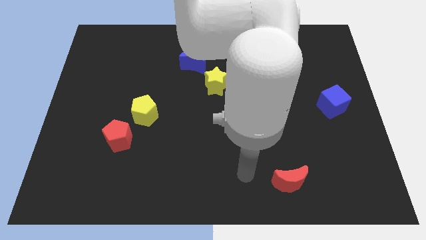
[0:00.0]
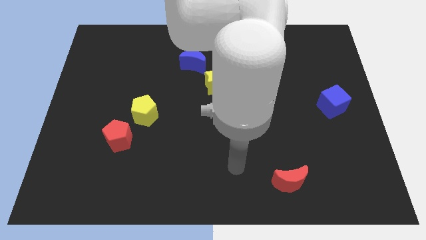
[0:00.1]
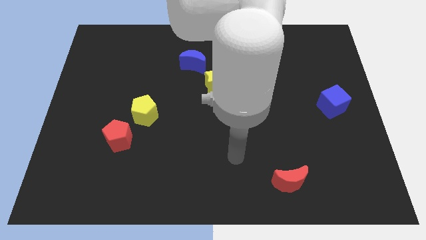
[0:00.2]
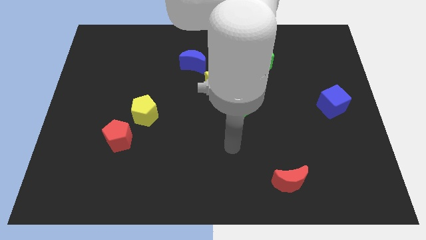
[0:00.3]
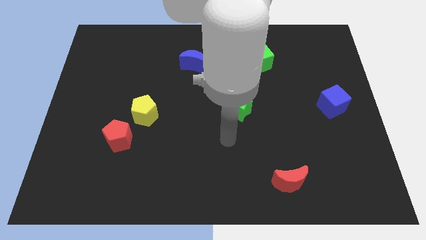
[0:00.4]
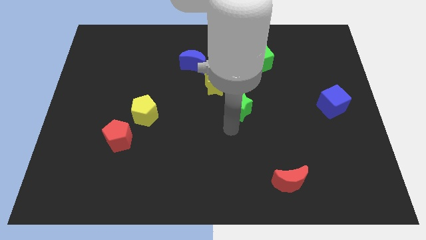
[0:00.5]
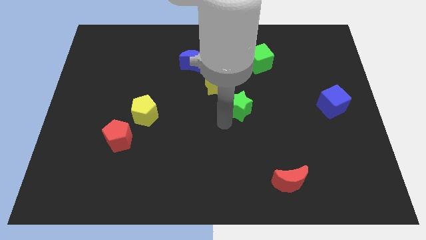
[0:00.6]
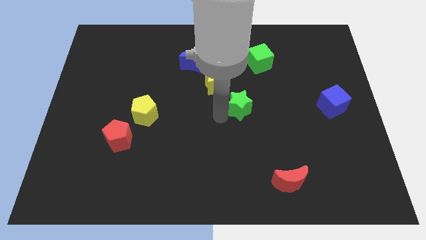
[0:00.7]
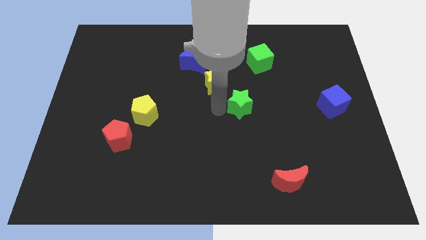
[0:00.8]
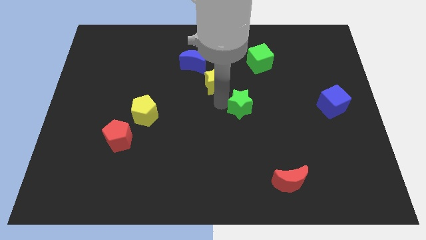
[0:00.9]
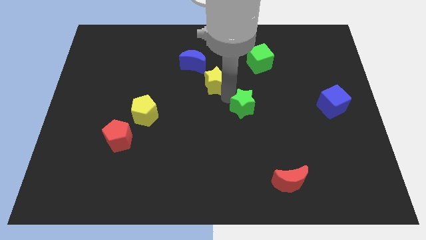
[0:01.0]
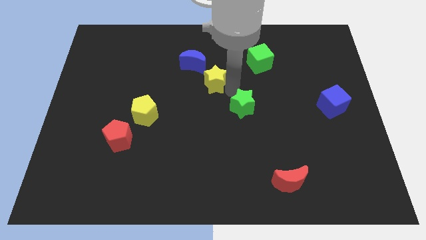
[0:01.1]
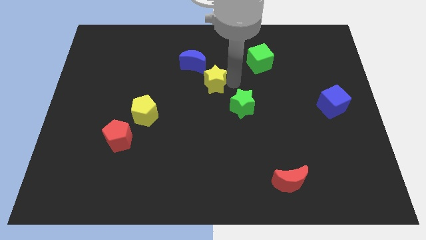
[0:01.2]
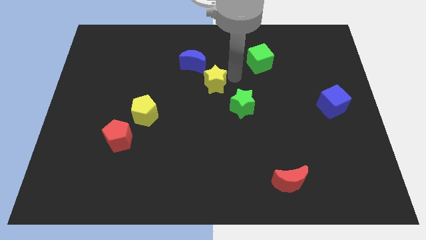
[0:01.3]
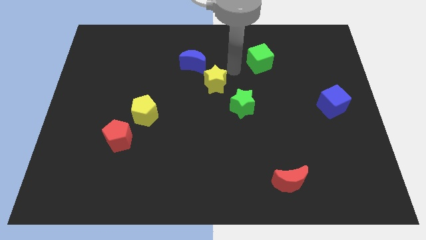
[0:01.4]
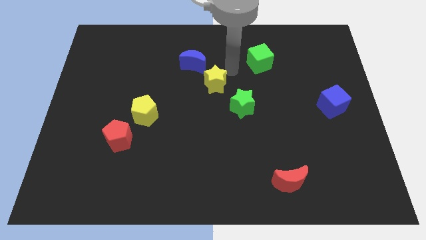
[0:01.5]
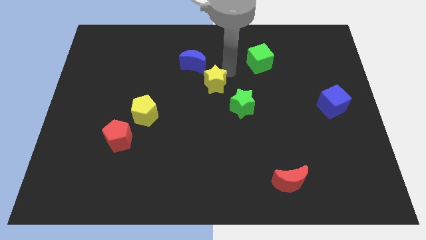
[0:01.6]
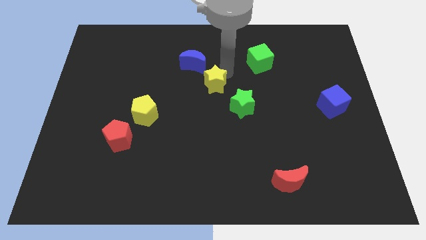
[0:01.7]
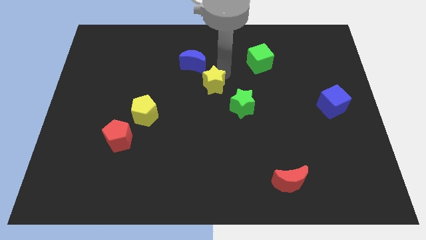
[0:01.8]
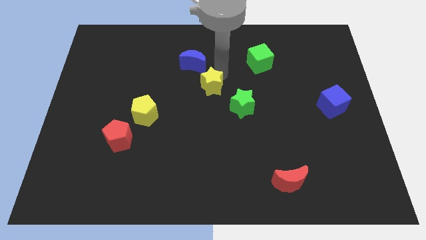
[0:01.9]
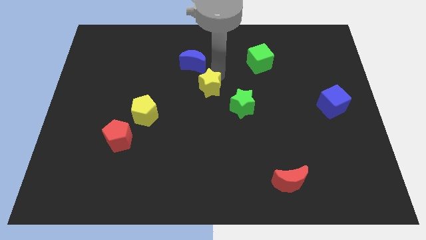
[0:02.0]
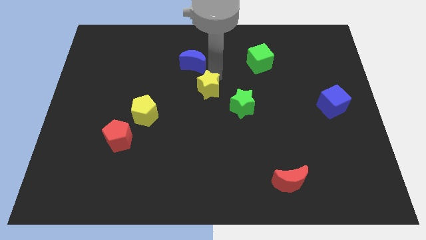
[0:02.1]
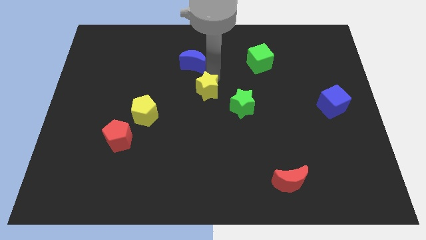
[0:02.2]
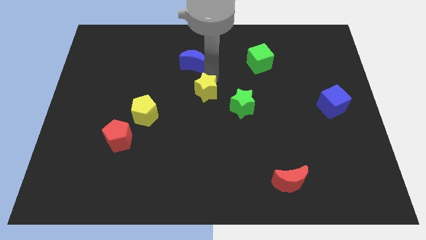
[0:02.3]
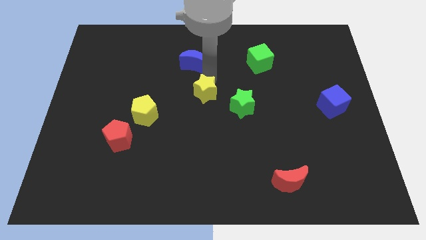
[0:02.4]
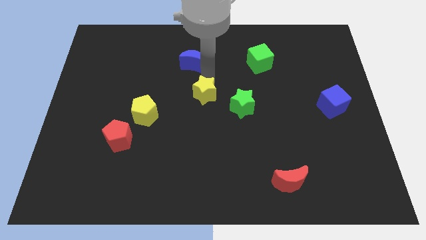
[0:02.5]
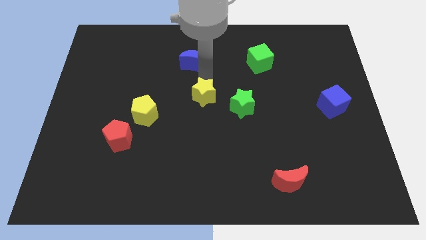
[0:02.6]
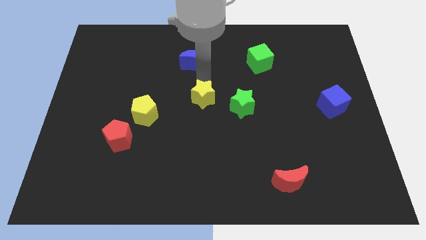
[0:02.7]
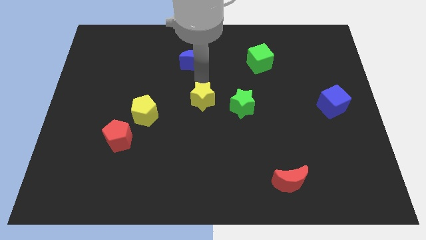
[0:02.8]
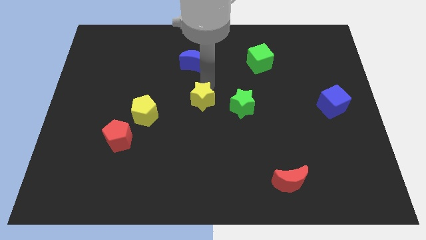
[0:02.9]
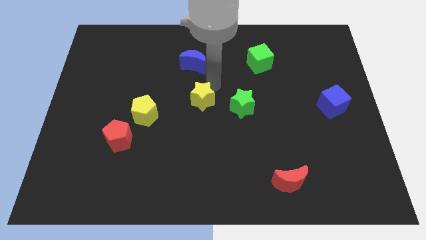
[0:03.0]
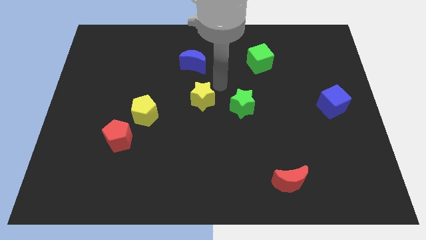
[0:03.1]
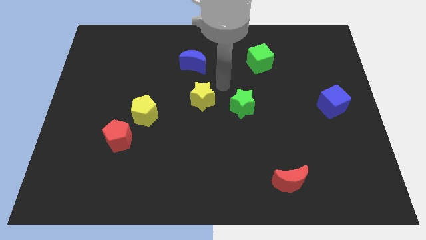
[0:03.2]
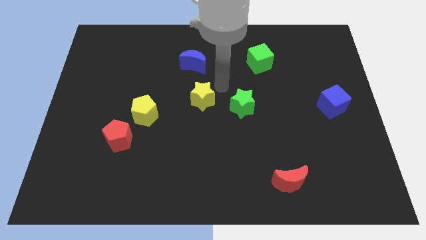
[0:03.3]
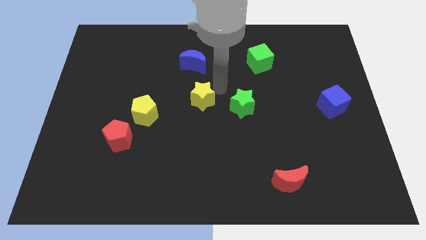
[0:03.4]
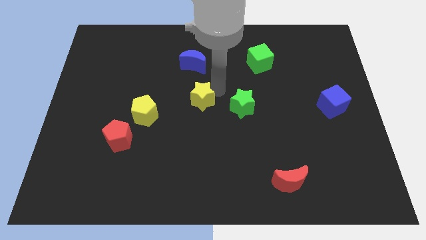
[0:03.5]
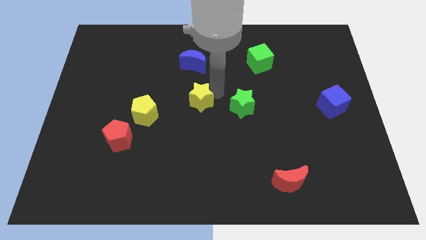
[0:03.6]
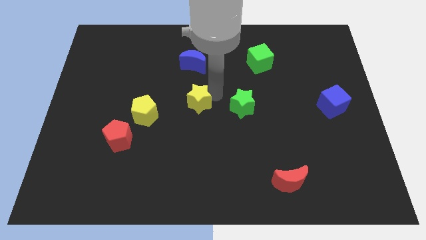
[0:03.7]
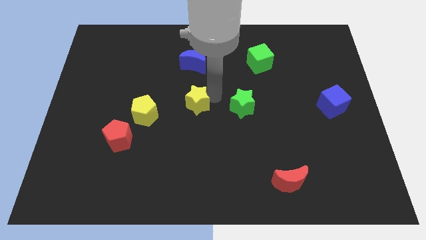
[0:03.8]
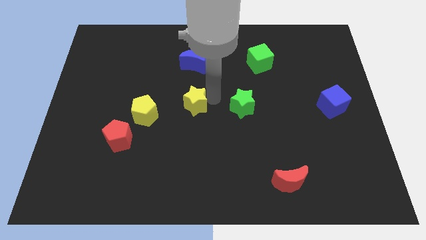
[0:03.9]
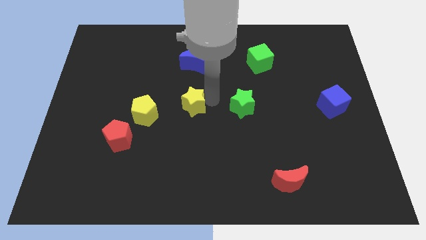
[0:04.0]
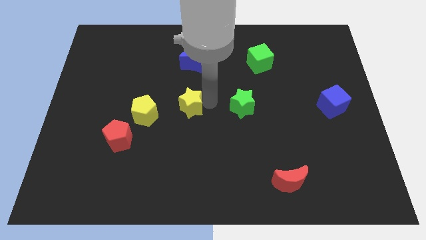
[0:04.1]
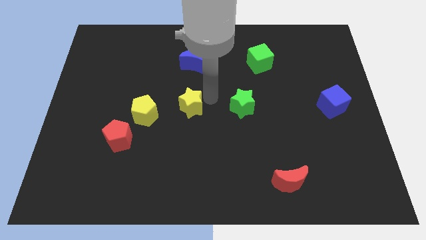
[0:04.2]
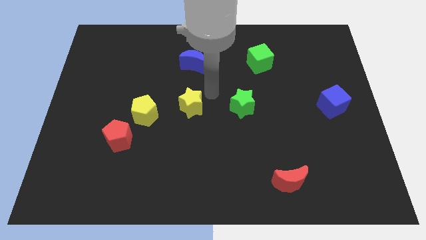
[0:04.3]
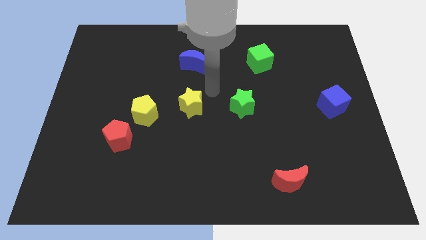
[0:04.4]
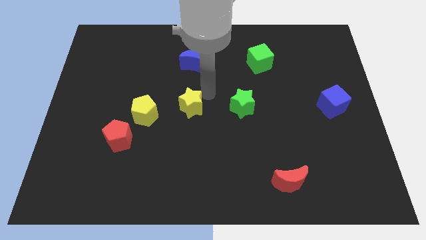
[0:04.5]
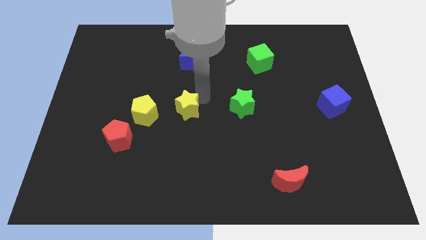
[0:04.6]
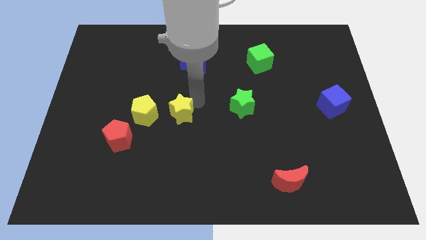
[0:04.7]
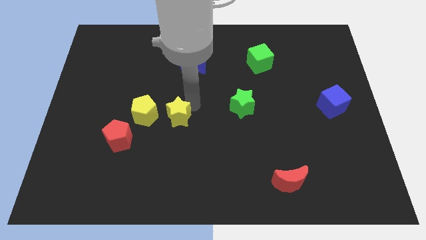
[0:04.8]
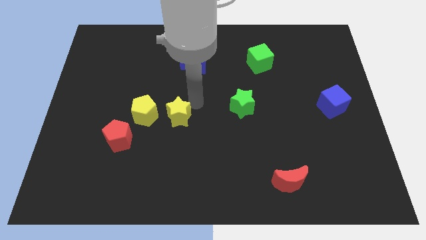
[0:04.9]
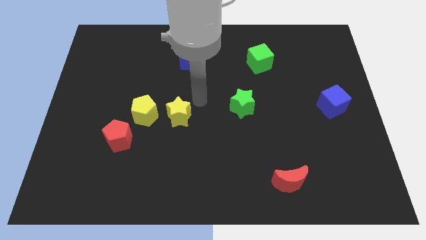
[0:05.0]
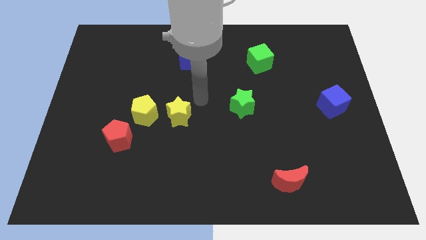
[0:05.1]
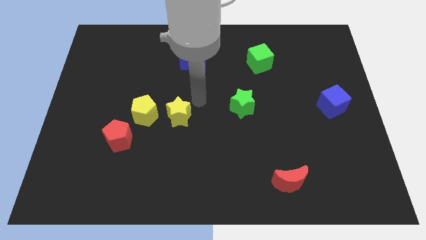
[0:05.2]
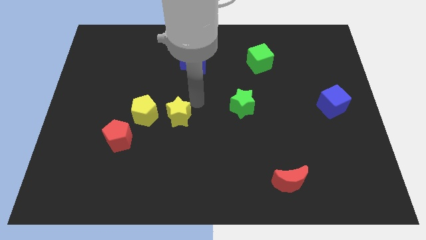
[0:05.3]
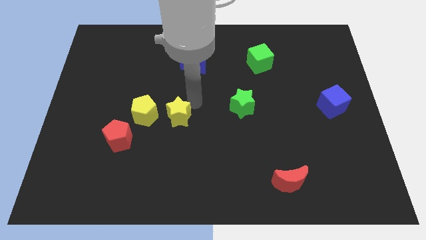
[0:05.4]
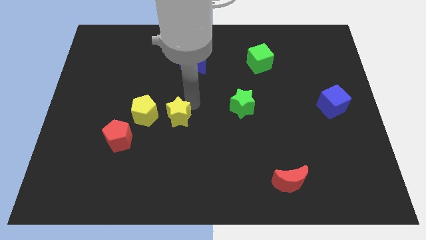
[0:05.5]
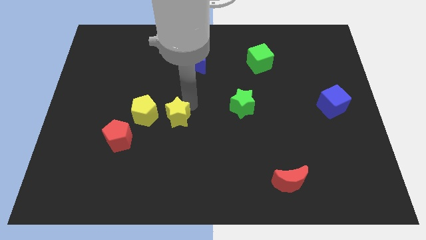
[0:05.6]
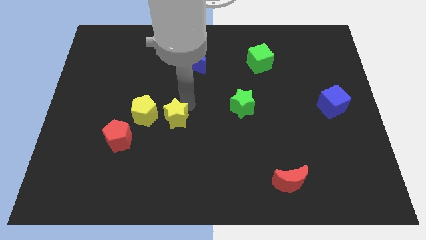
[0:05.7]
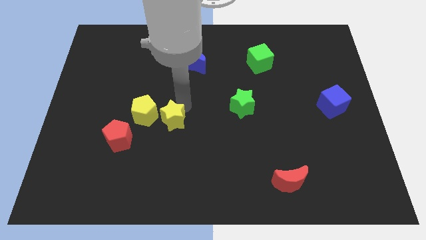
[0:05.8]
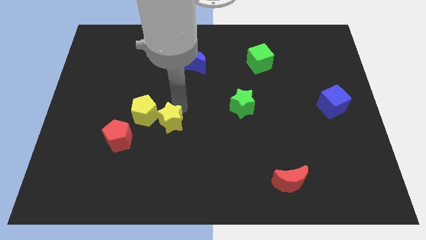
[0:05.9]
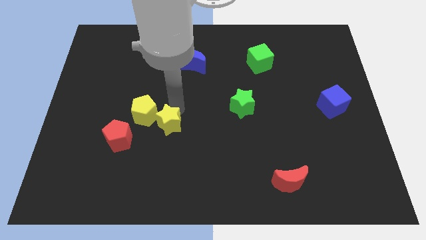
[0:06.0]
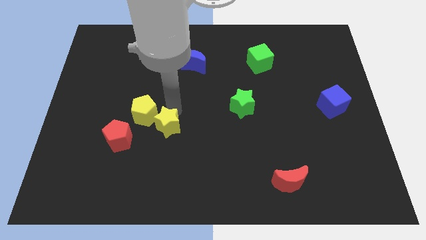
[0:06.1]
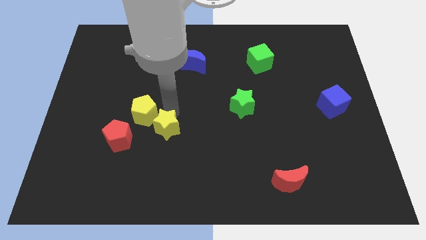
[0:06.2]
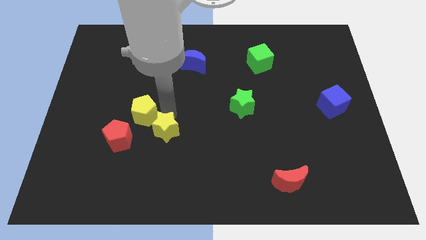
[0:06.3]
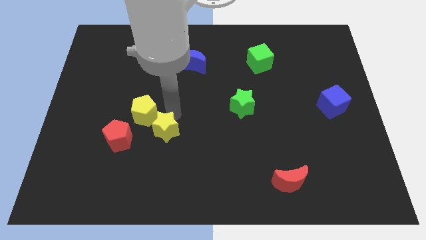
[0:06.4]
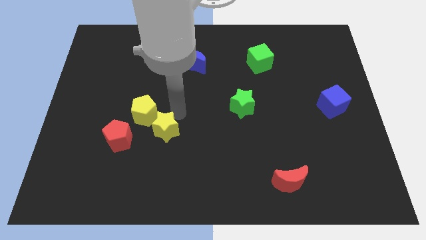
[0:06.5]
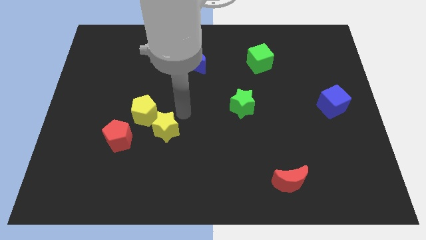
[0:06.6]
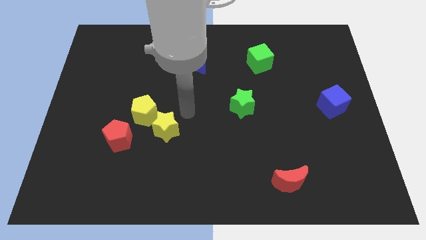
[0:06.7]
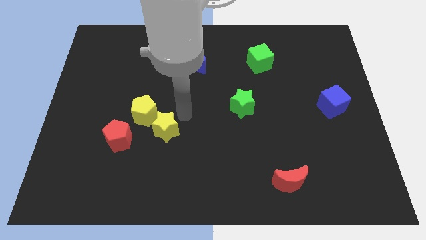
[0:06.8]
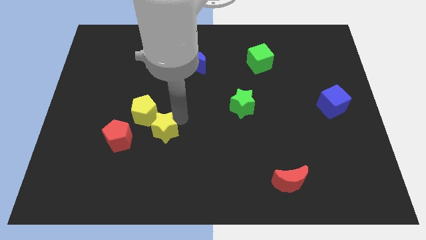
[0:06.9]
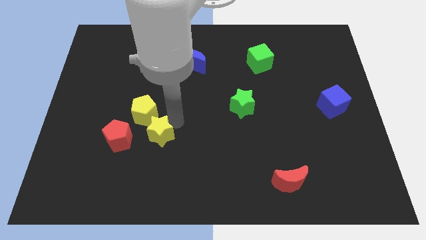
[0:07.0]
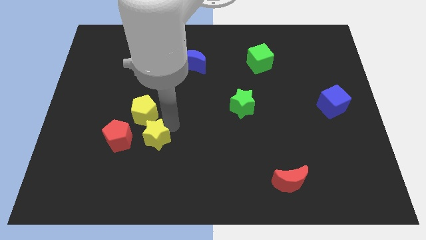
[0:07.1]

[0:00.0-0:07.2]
slide the yellow star diagonally down and to the left

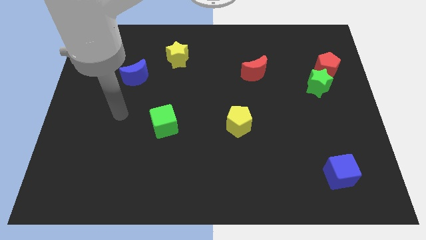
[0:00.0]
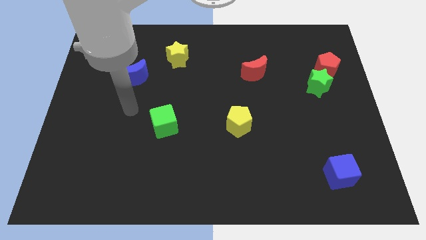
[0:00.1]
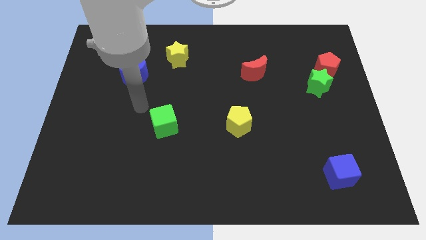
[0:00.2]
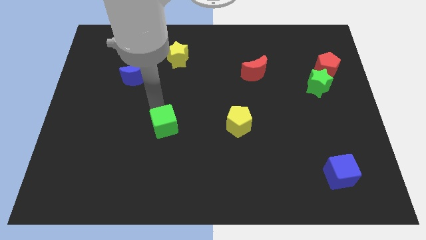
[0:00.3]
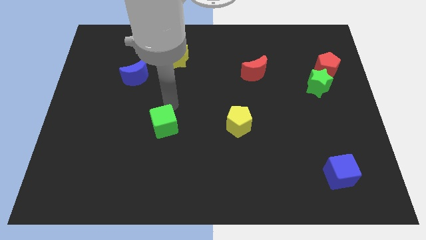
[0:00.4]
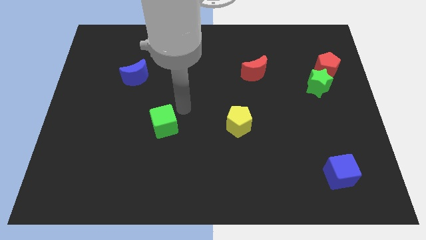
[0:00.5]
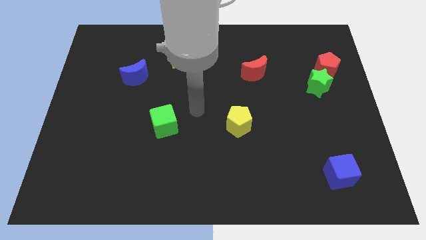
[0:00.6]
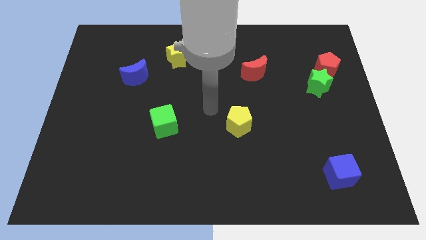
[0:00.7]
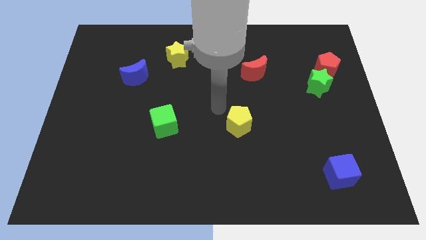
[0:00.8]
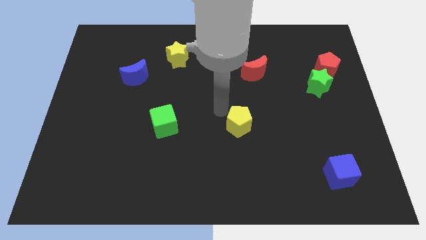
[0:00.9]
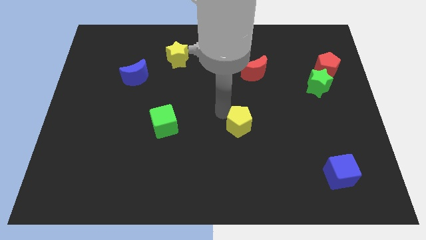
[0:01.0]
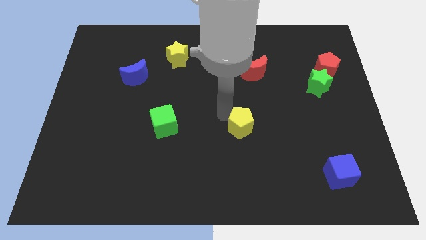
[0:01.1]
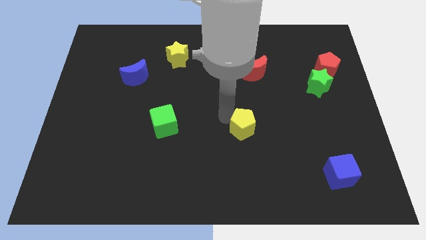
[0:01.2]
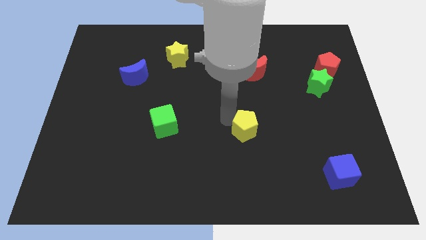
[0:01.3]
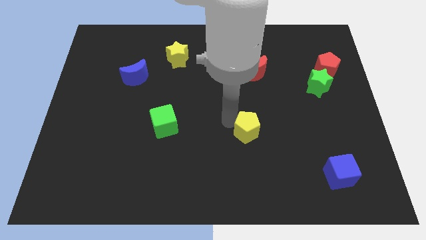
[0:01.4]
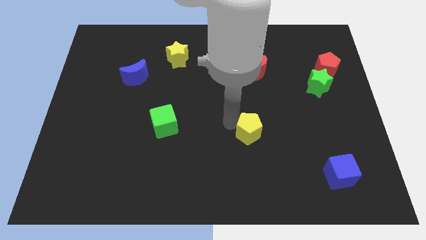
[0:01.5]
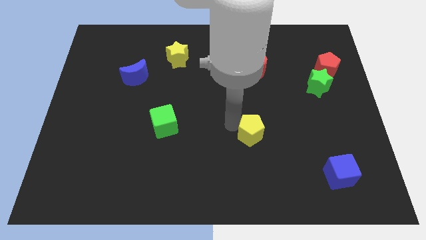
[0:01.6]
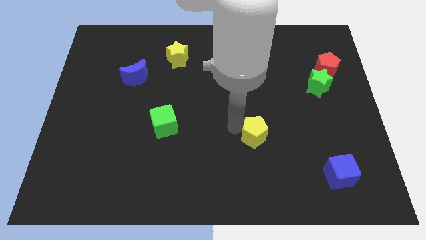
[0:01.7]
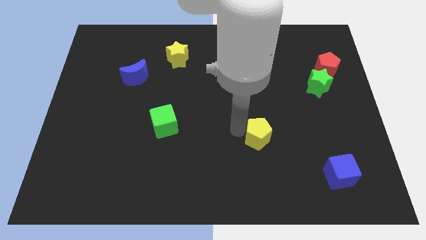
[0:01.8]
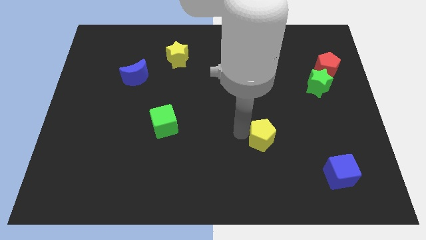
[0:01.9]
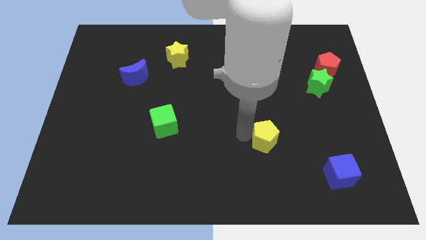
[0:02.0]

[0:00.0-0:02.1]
move the yellow pentagon a little downwards and then to the right
